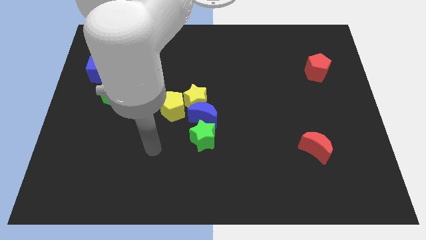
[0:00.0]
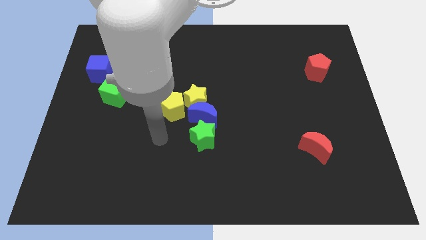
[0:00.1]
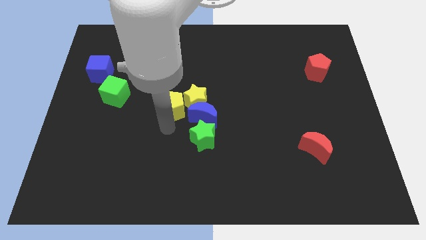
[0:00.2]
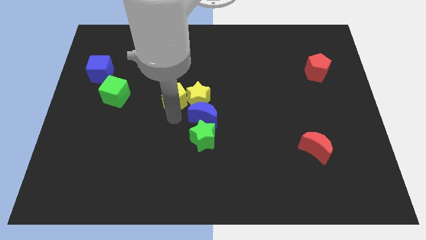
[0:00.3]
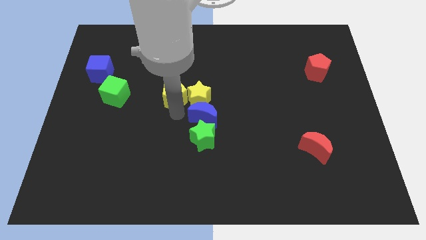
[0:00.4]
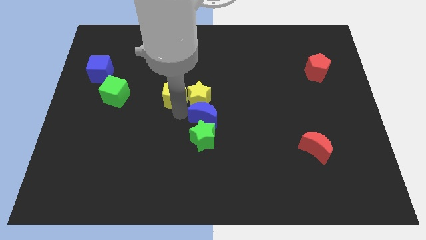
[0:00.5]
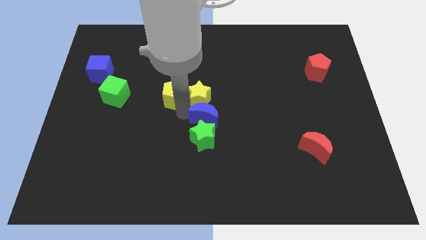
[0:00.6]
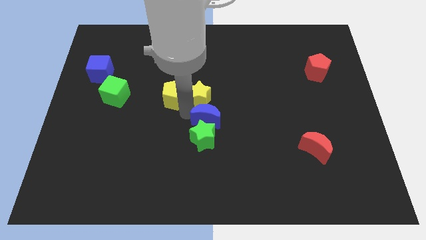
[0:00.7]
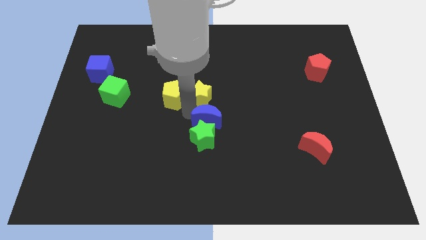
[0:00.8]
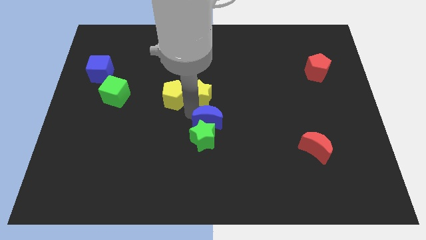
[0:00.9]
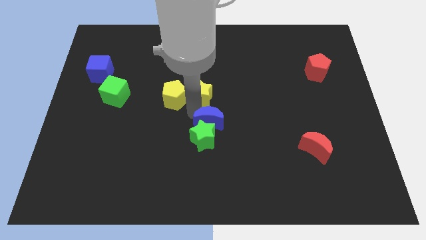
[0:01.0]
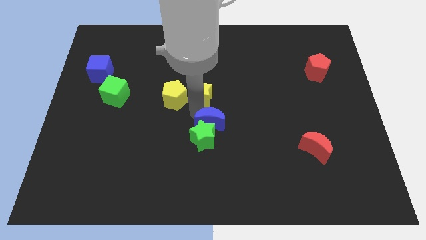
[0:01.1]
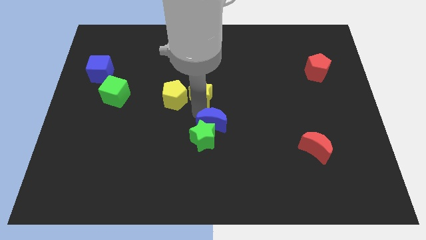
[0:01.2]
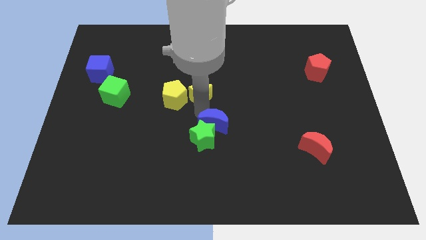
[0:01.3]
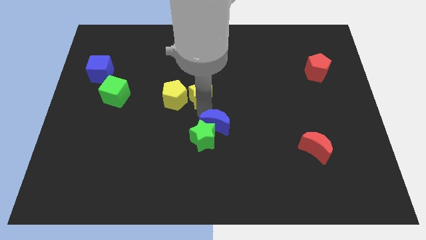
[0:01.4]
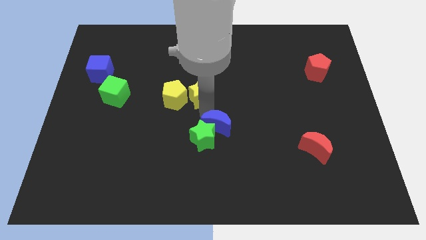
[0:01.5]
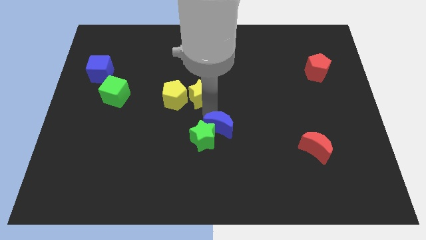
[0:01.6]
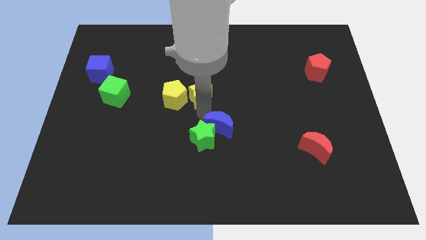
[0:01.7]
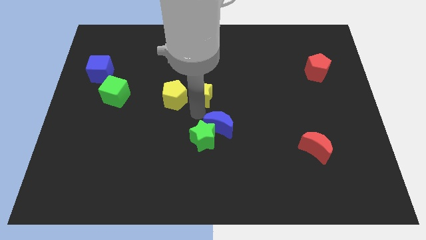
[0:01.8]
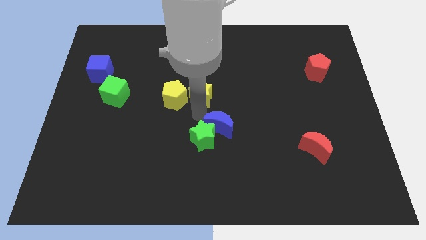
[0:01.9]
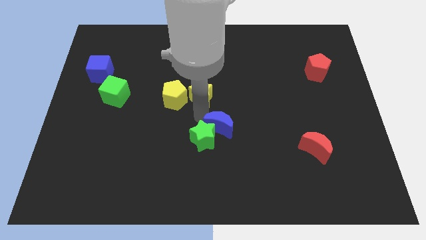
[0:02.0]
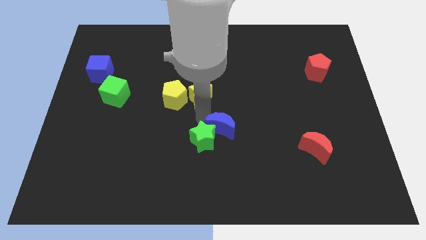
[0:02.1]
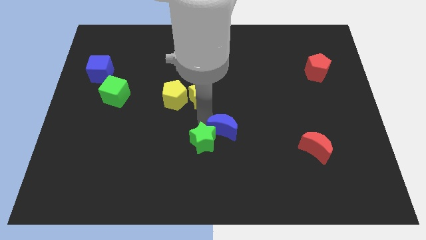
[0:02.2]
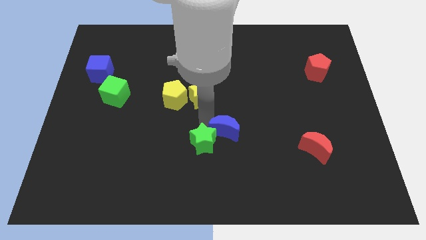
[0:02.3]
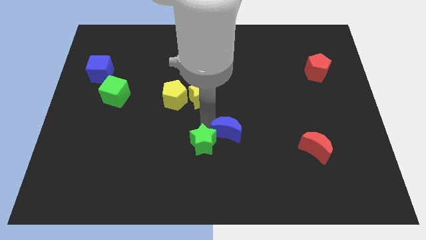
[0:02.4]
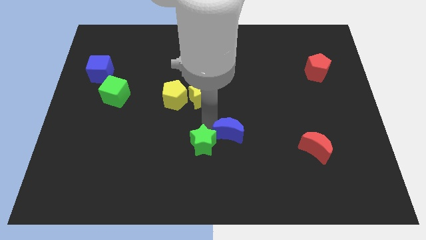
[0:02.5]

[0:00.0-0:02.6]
pull the blue moon apart from the group

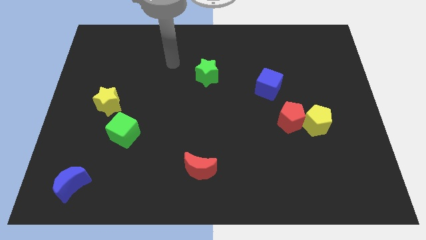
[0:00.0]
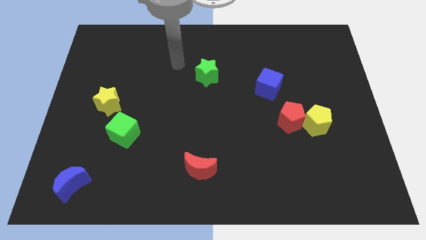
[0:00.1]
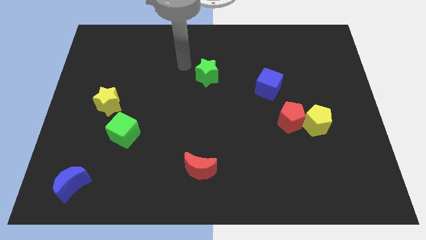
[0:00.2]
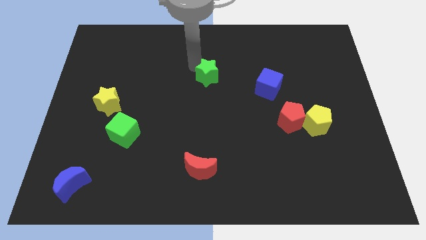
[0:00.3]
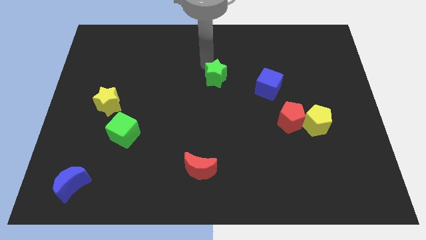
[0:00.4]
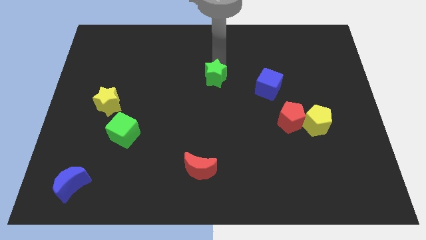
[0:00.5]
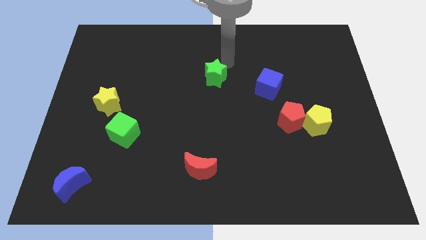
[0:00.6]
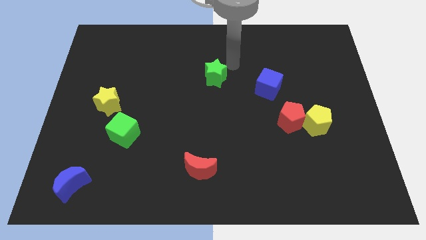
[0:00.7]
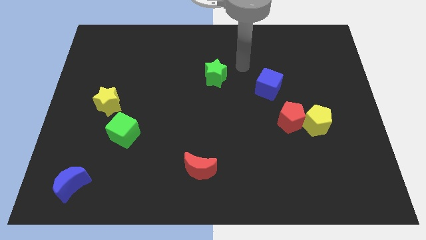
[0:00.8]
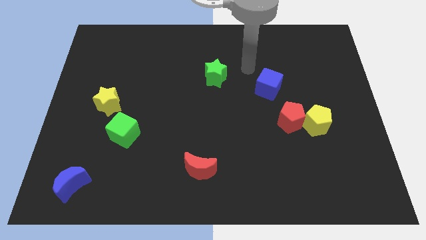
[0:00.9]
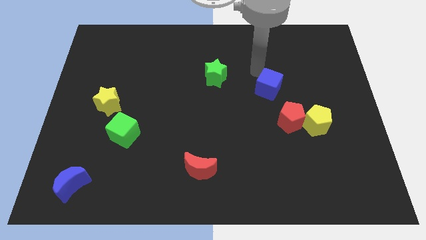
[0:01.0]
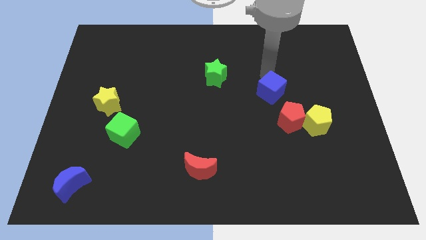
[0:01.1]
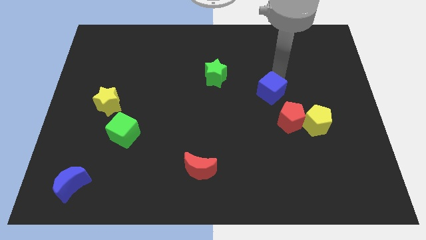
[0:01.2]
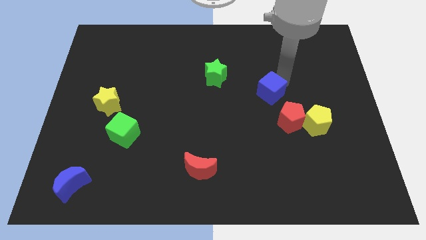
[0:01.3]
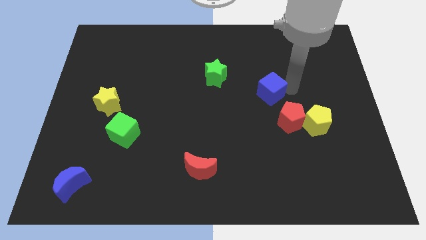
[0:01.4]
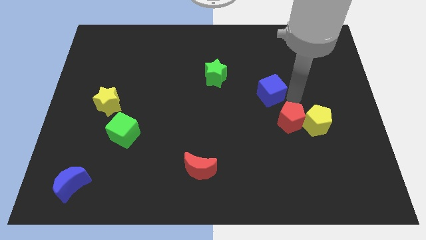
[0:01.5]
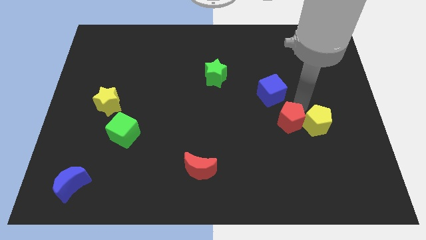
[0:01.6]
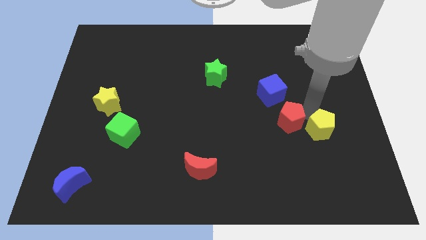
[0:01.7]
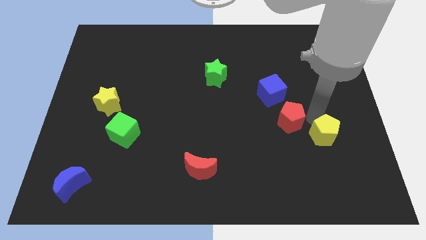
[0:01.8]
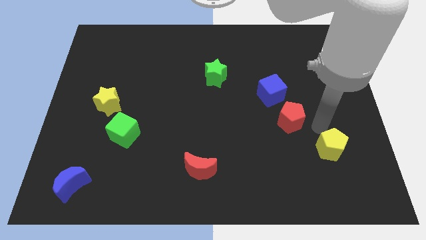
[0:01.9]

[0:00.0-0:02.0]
pull the red pentagon apart from the yellow pentagon

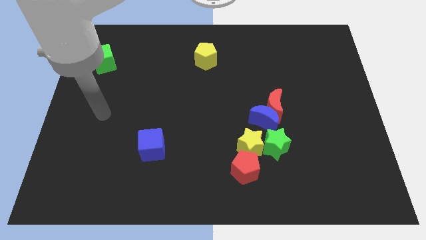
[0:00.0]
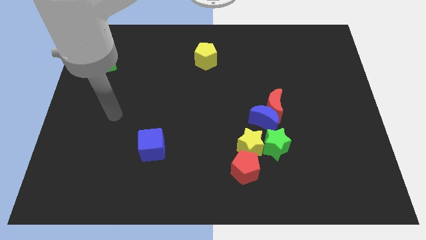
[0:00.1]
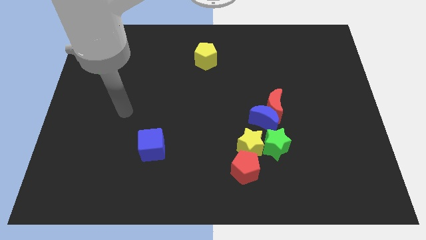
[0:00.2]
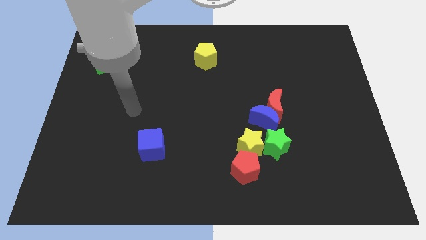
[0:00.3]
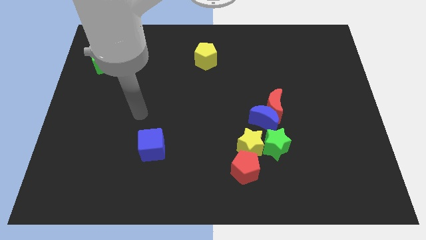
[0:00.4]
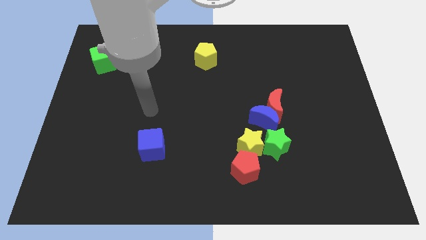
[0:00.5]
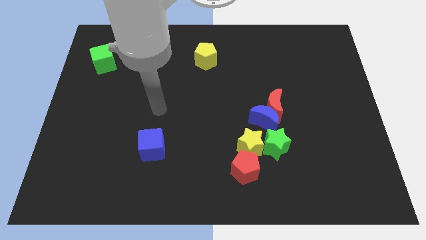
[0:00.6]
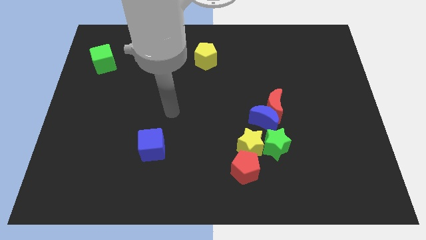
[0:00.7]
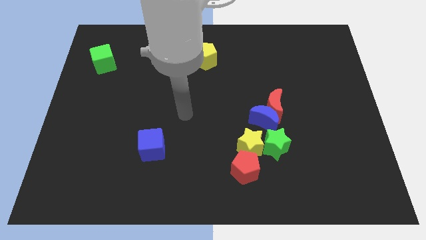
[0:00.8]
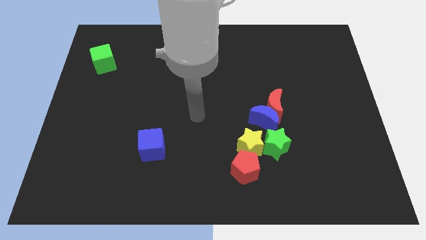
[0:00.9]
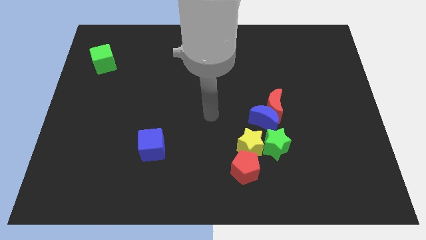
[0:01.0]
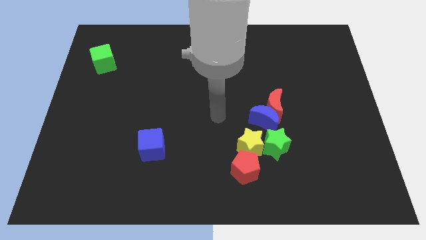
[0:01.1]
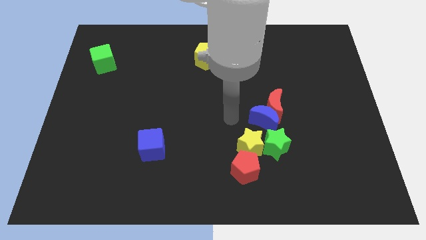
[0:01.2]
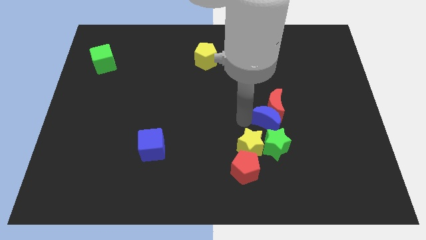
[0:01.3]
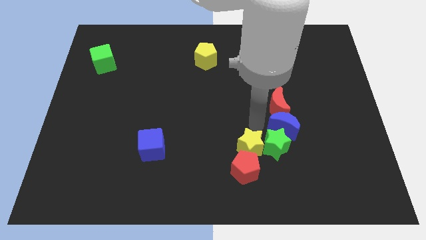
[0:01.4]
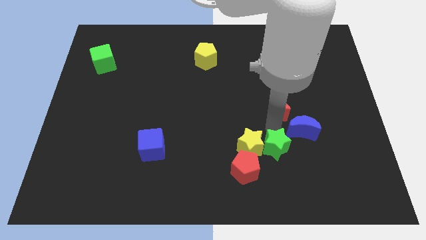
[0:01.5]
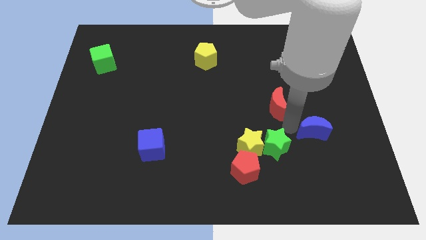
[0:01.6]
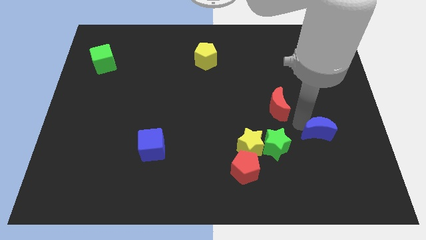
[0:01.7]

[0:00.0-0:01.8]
pull the red moon apart from the blue moon

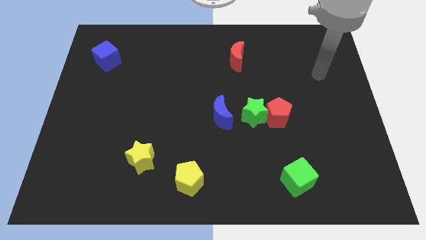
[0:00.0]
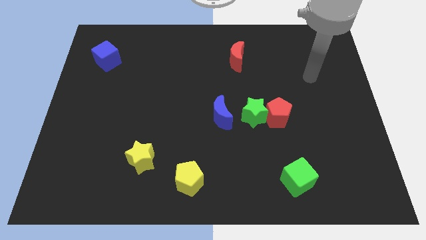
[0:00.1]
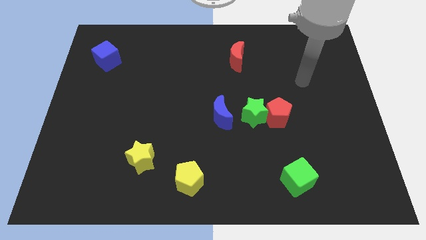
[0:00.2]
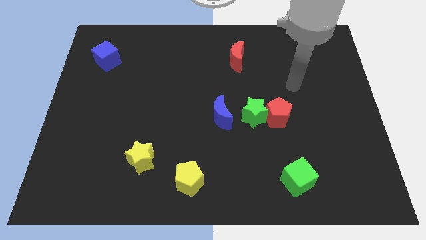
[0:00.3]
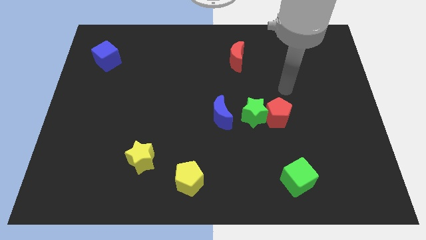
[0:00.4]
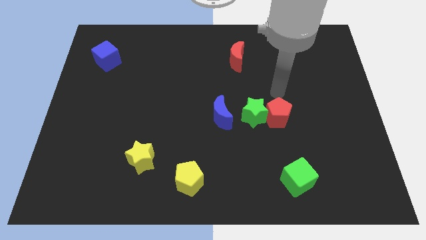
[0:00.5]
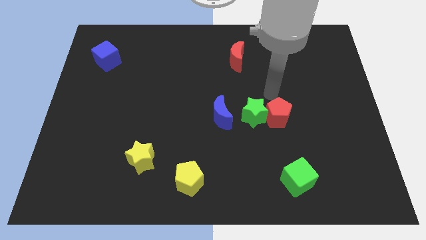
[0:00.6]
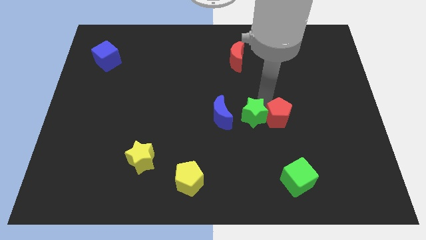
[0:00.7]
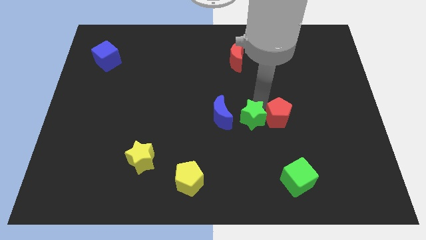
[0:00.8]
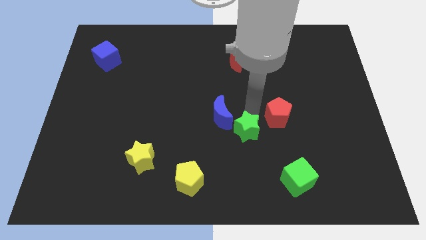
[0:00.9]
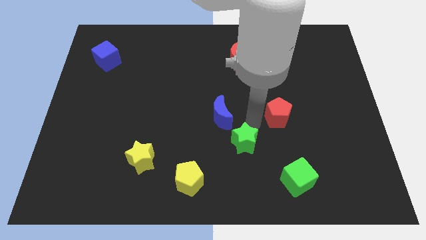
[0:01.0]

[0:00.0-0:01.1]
pull the red pentagon apart from the green star

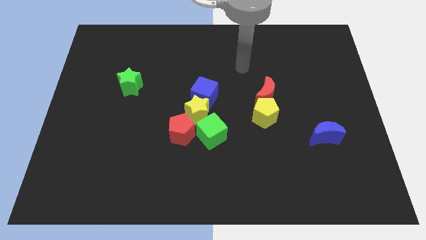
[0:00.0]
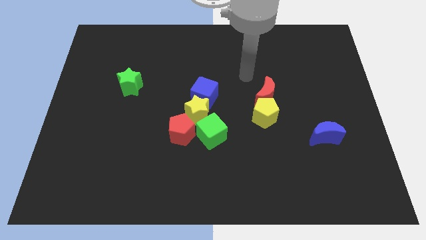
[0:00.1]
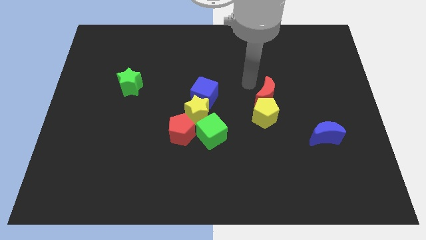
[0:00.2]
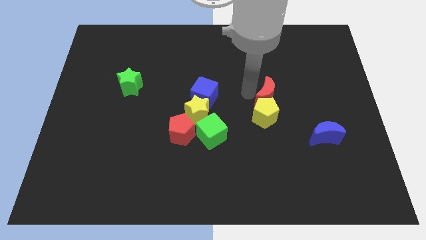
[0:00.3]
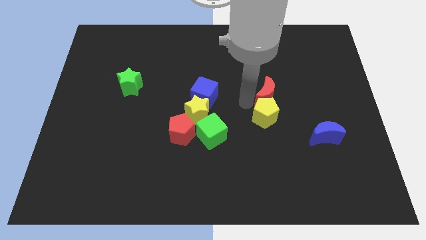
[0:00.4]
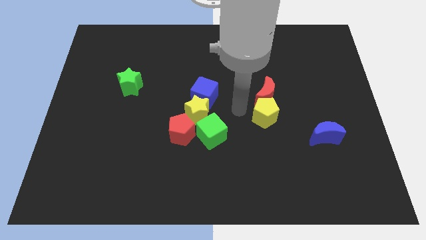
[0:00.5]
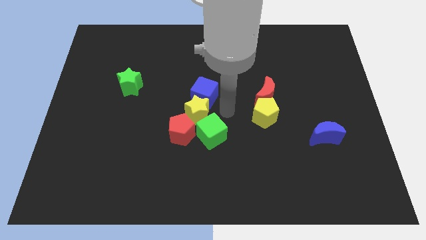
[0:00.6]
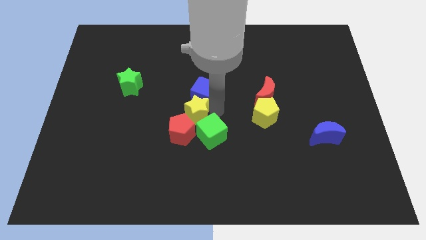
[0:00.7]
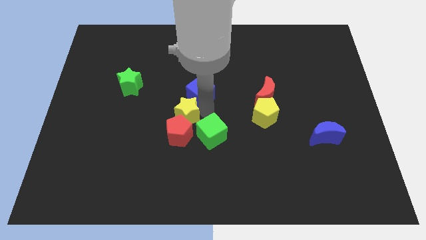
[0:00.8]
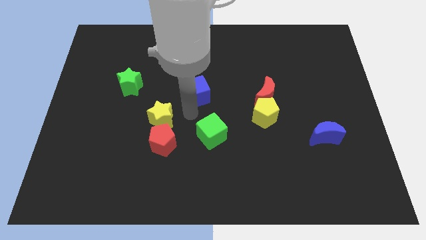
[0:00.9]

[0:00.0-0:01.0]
move the blue cube away from the yellow star

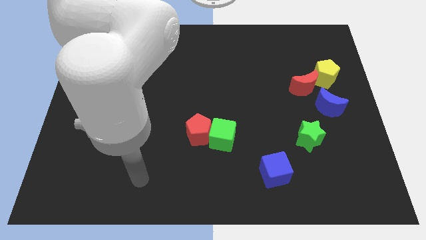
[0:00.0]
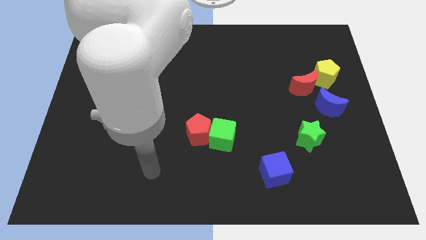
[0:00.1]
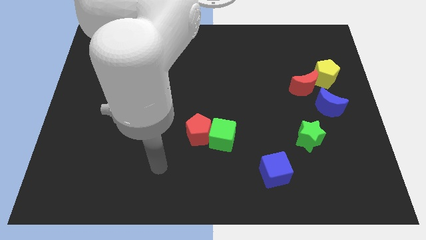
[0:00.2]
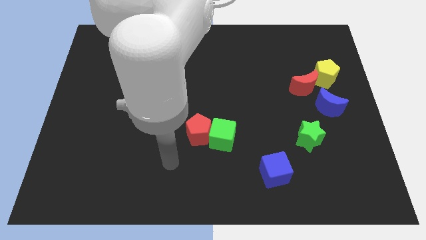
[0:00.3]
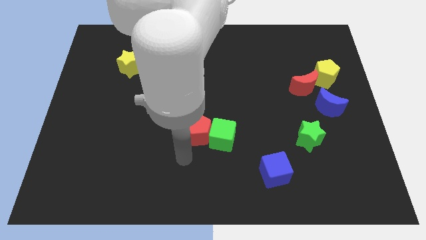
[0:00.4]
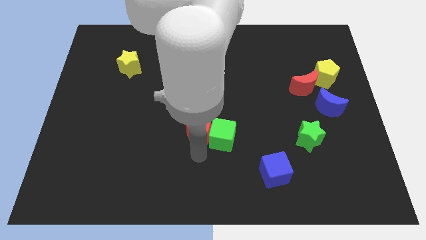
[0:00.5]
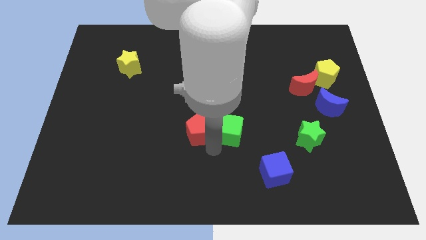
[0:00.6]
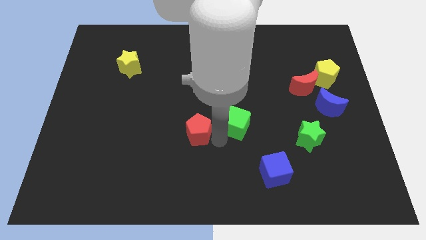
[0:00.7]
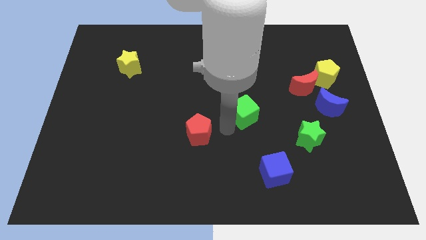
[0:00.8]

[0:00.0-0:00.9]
separate the red pentagon from the green cube

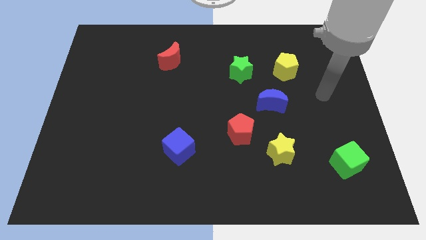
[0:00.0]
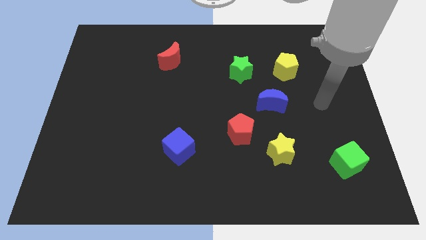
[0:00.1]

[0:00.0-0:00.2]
separate the red pentagon from the yellow star
